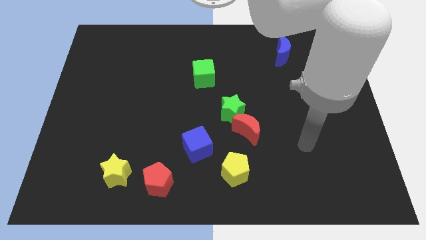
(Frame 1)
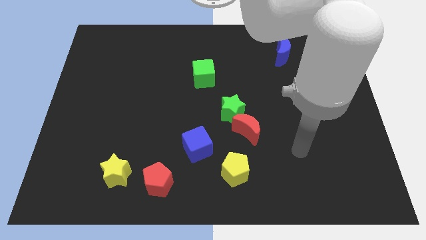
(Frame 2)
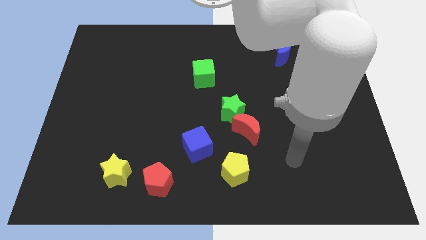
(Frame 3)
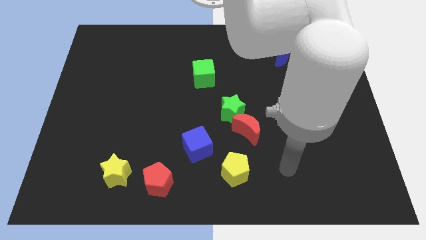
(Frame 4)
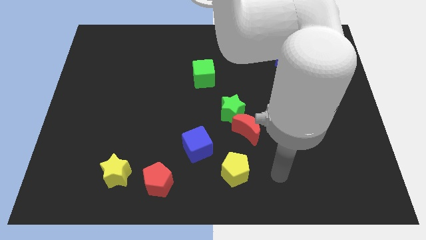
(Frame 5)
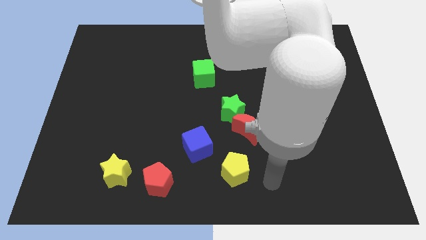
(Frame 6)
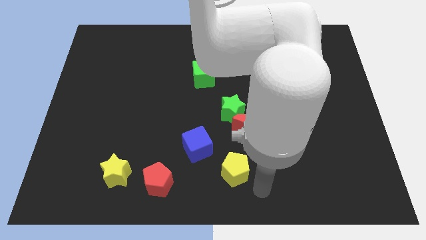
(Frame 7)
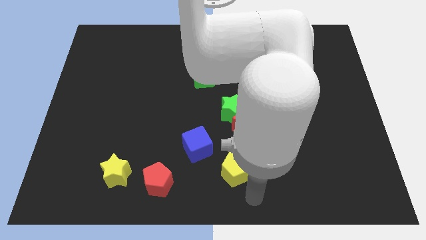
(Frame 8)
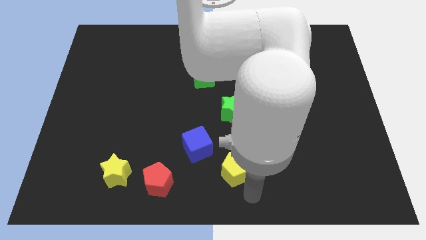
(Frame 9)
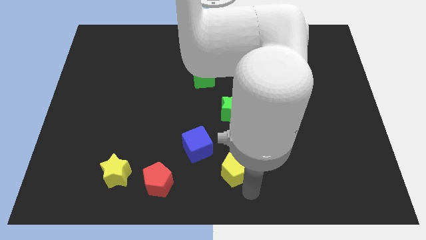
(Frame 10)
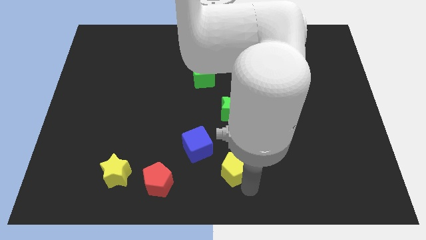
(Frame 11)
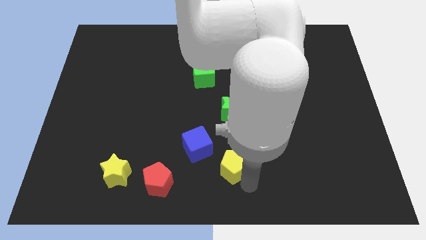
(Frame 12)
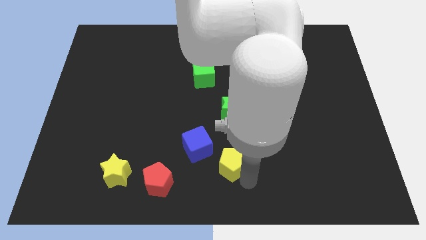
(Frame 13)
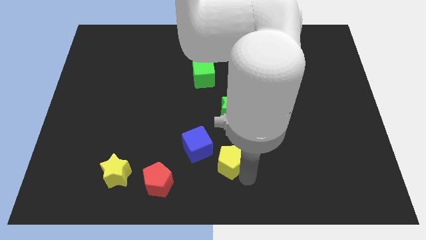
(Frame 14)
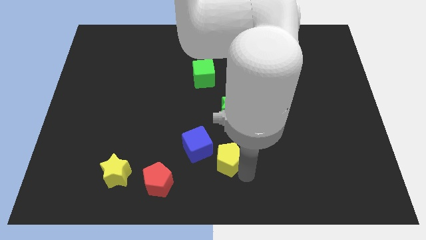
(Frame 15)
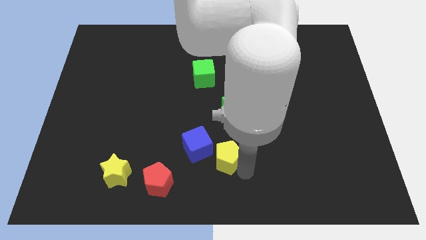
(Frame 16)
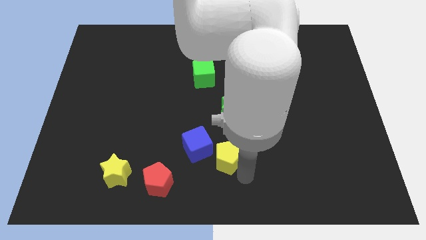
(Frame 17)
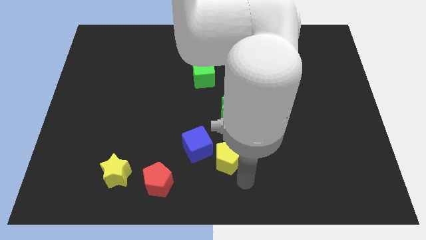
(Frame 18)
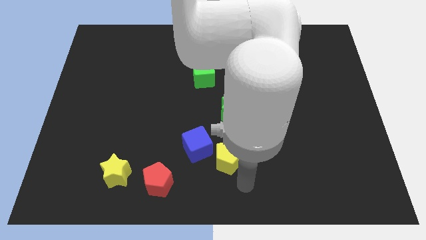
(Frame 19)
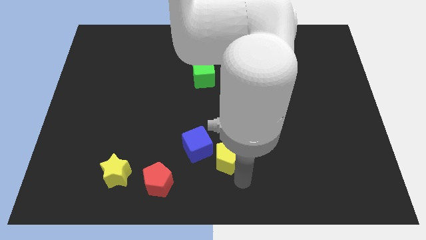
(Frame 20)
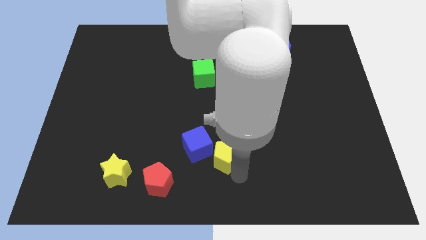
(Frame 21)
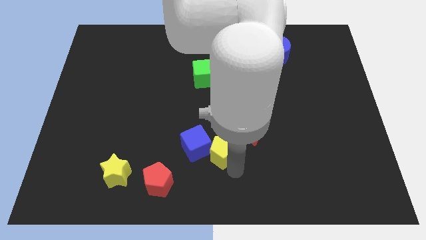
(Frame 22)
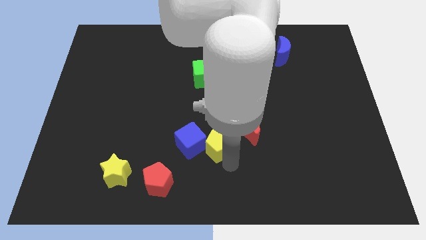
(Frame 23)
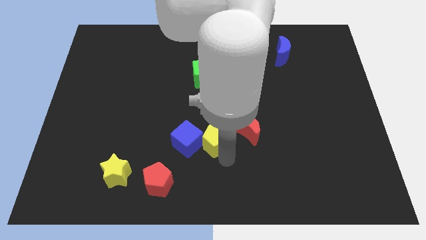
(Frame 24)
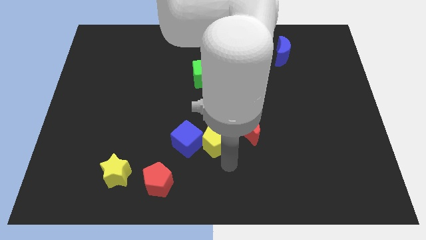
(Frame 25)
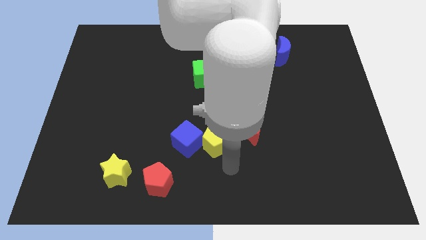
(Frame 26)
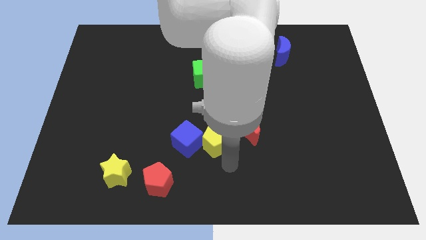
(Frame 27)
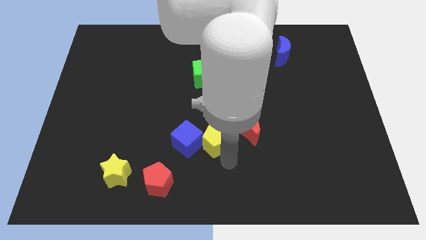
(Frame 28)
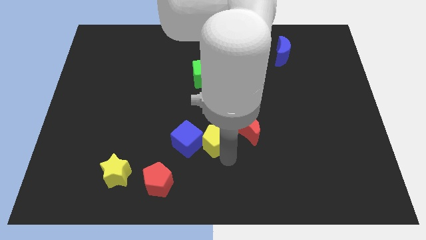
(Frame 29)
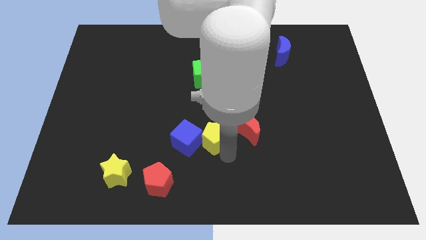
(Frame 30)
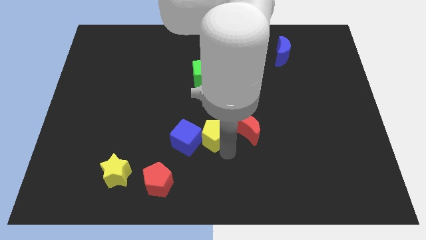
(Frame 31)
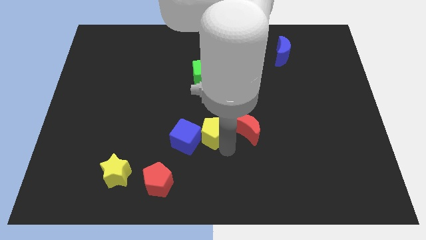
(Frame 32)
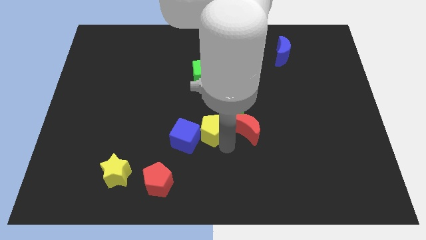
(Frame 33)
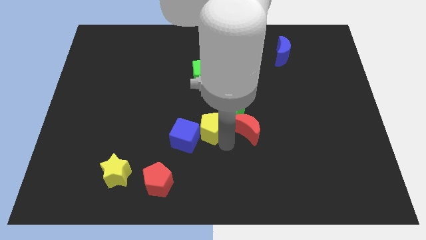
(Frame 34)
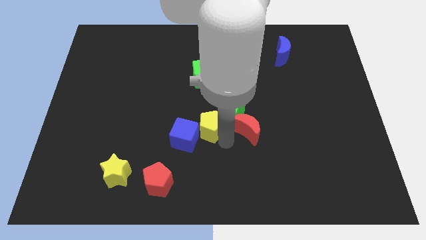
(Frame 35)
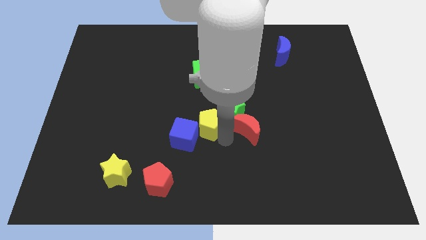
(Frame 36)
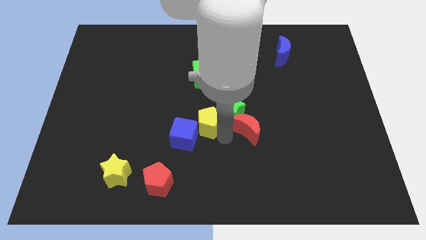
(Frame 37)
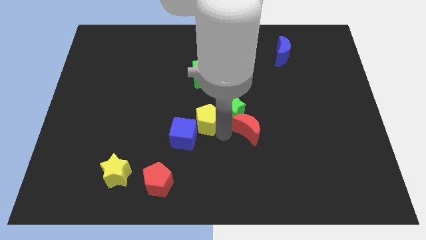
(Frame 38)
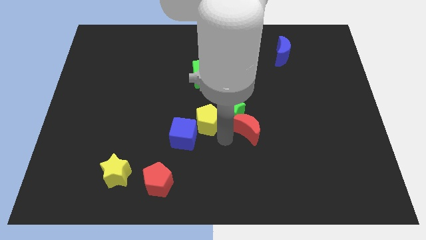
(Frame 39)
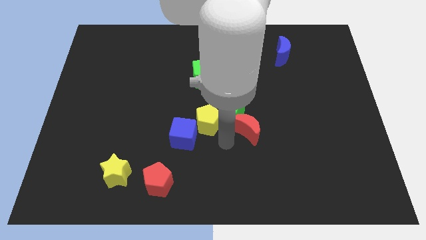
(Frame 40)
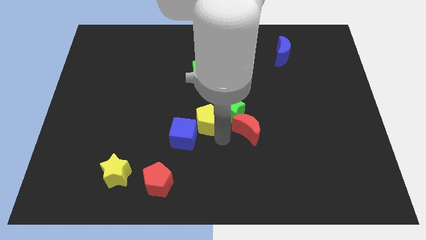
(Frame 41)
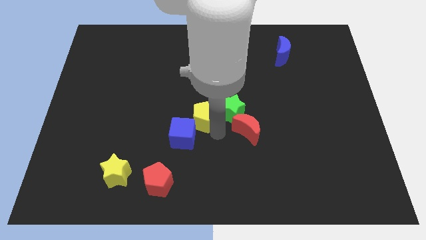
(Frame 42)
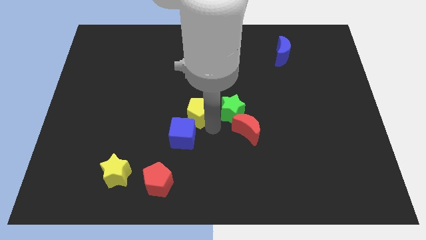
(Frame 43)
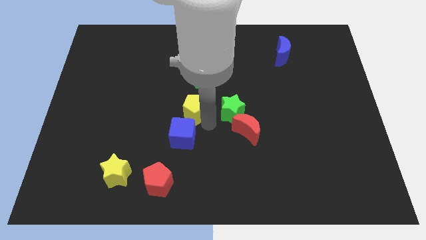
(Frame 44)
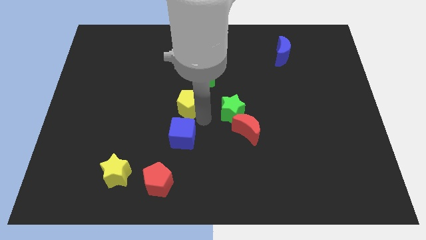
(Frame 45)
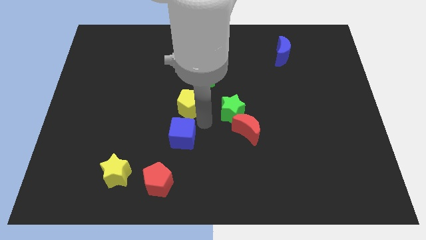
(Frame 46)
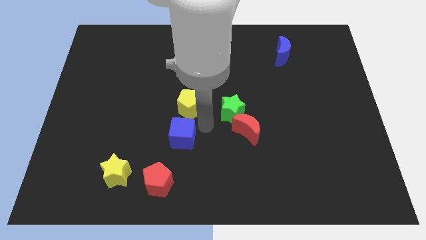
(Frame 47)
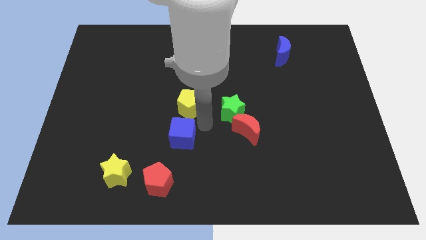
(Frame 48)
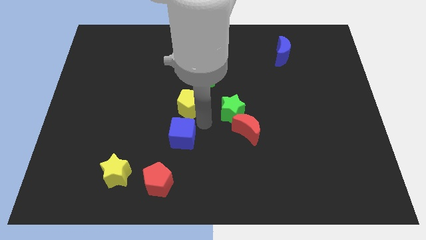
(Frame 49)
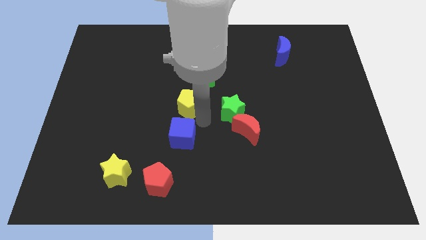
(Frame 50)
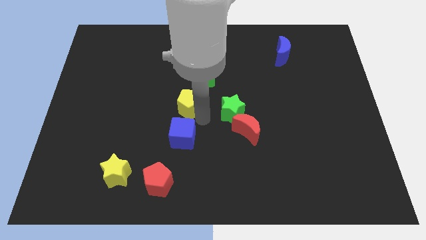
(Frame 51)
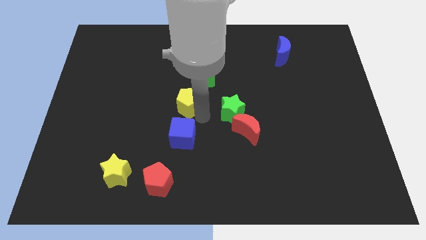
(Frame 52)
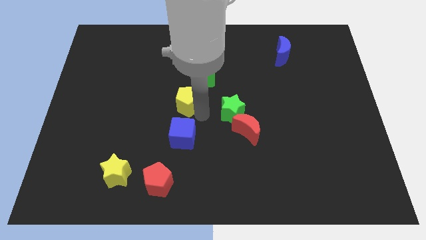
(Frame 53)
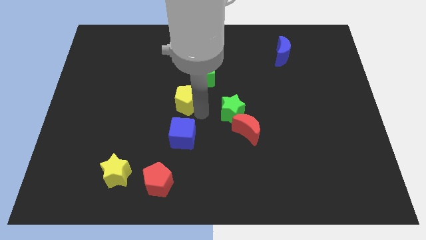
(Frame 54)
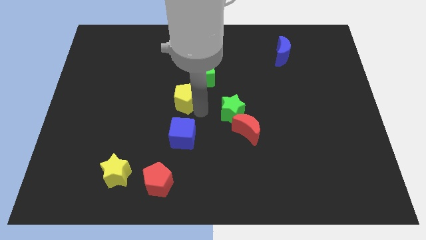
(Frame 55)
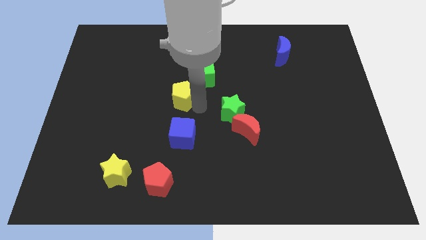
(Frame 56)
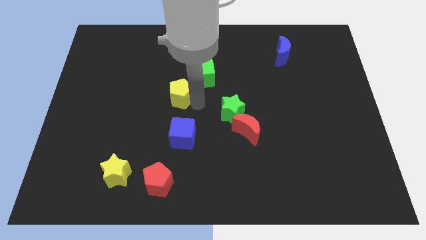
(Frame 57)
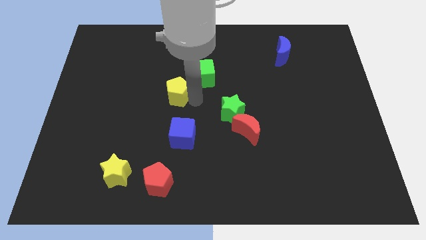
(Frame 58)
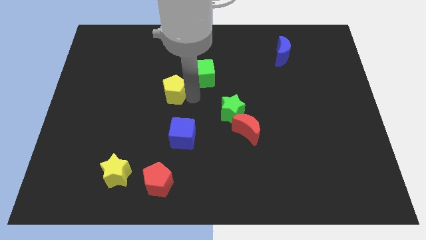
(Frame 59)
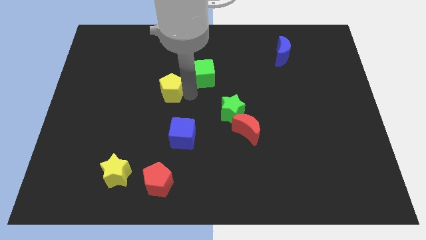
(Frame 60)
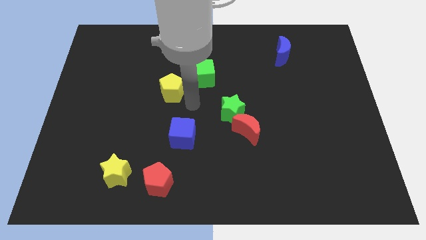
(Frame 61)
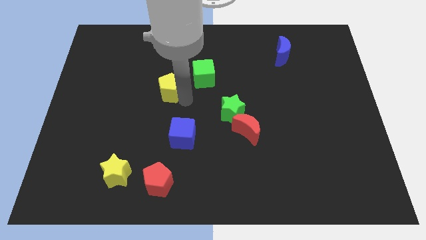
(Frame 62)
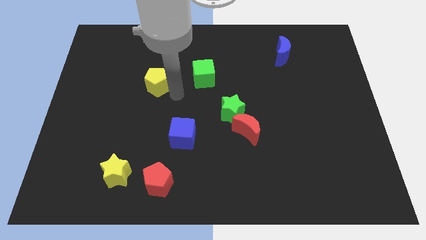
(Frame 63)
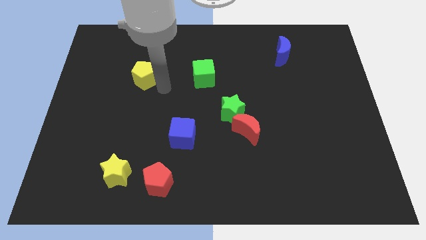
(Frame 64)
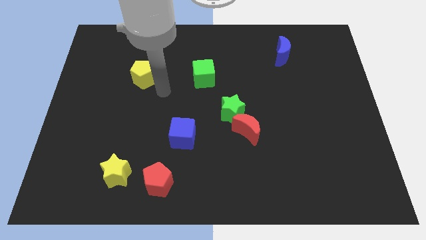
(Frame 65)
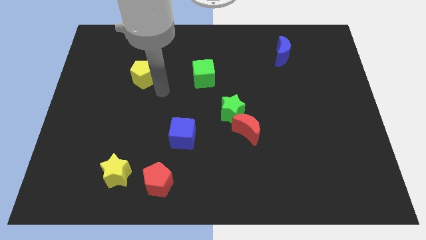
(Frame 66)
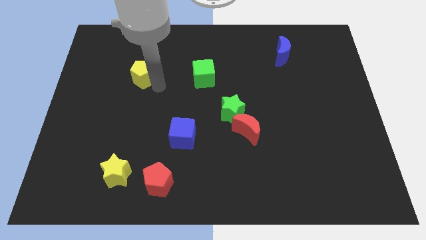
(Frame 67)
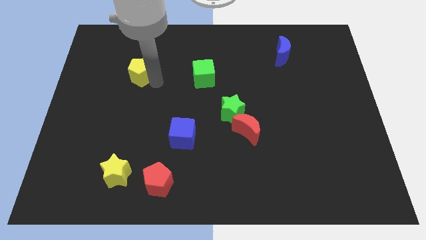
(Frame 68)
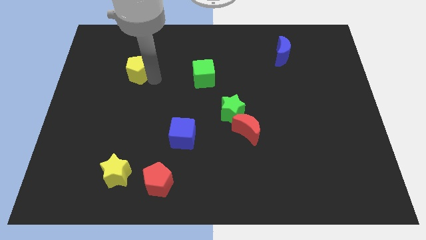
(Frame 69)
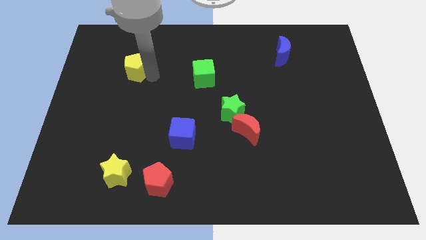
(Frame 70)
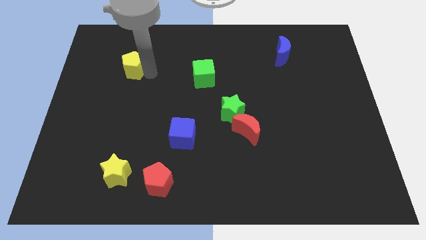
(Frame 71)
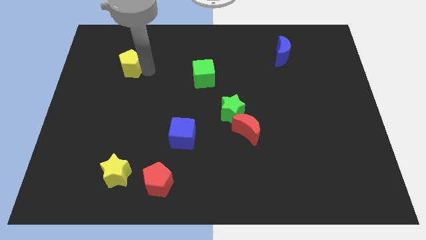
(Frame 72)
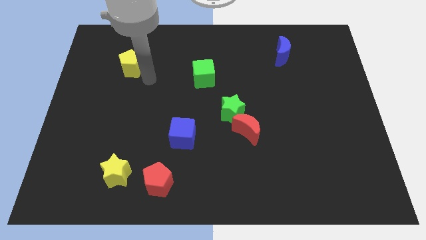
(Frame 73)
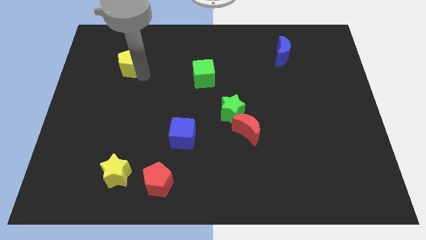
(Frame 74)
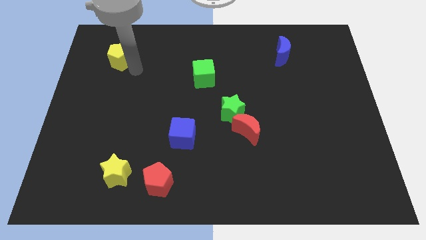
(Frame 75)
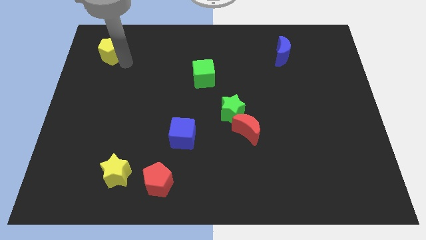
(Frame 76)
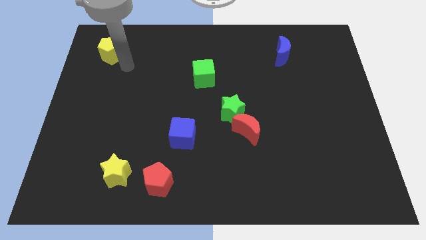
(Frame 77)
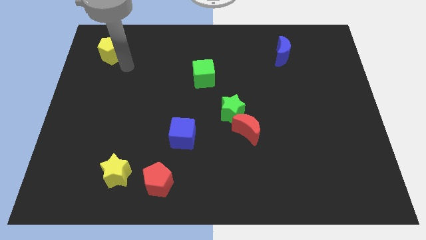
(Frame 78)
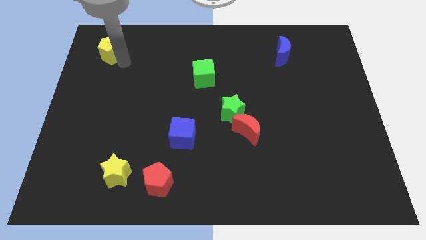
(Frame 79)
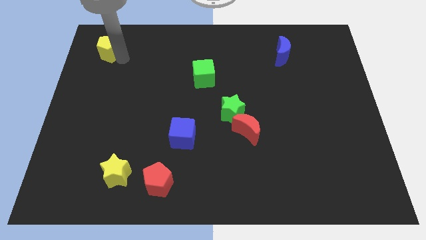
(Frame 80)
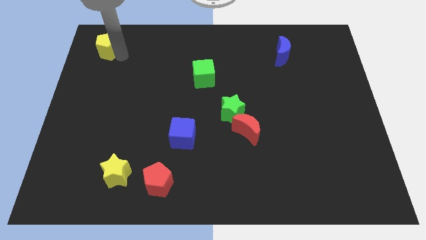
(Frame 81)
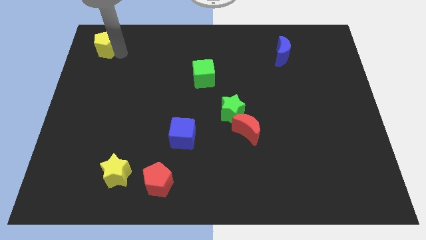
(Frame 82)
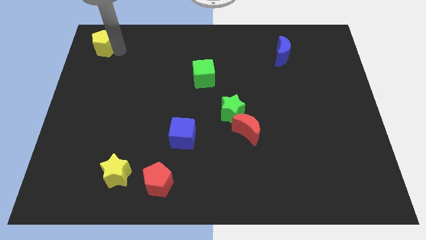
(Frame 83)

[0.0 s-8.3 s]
push the yellow pentagon to the top left of the board
